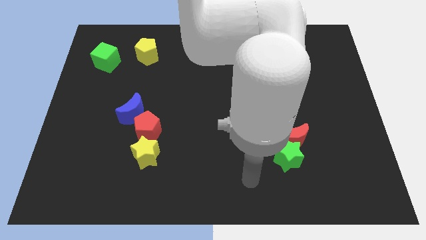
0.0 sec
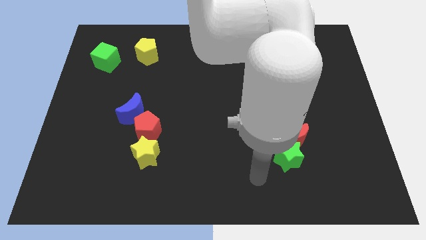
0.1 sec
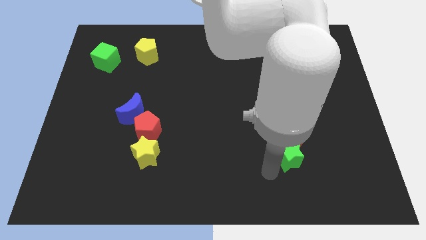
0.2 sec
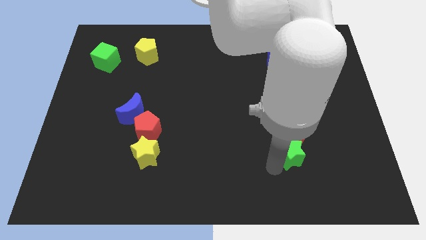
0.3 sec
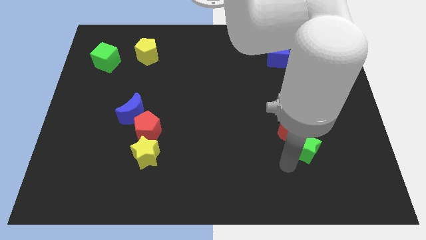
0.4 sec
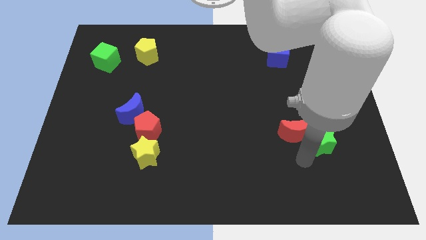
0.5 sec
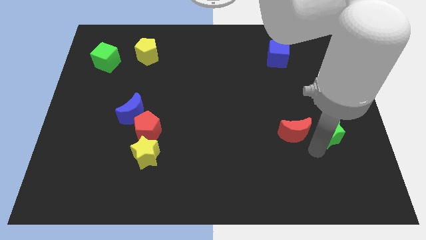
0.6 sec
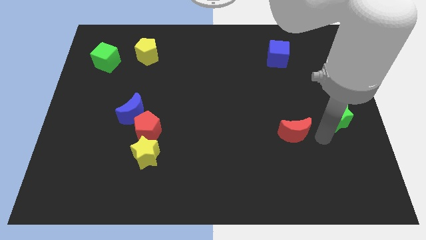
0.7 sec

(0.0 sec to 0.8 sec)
move the red moon away from the green star

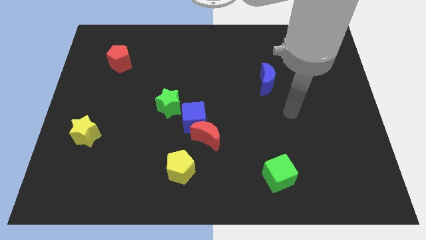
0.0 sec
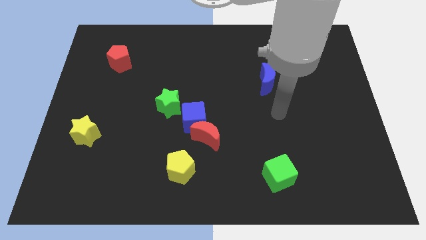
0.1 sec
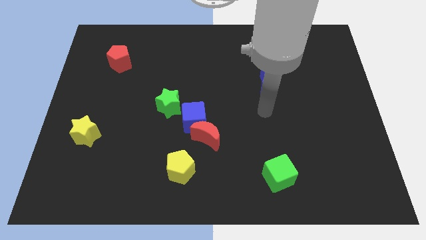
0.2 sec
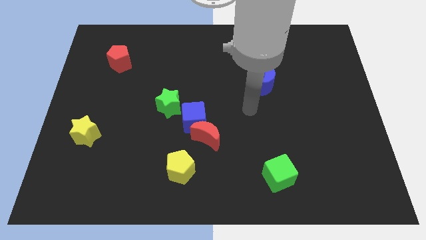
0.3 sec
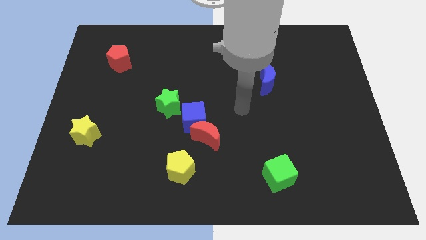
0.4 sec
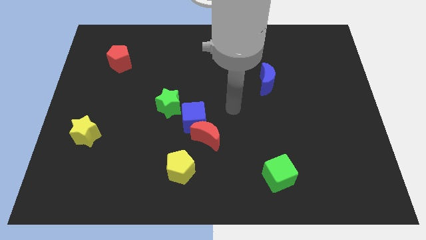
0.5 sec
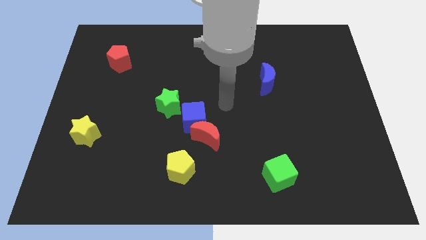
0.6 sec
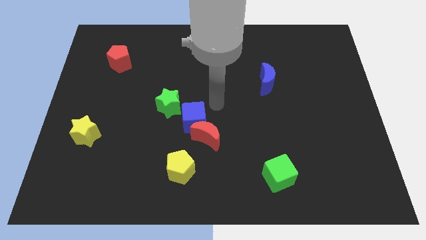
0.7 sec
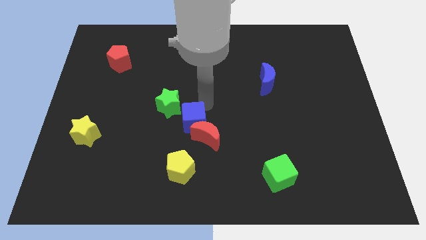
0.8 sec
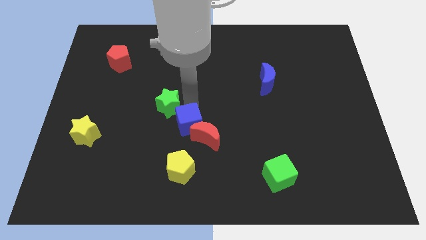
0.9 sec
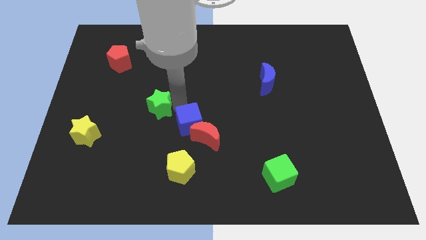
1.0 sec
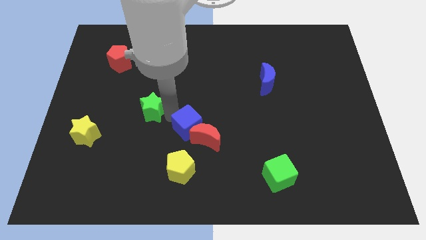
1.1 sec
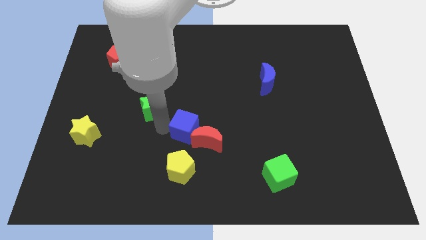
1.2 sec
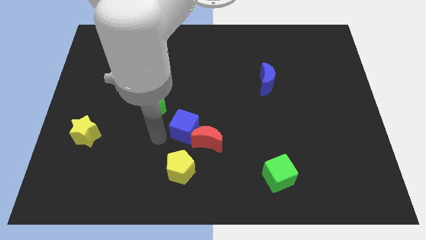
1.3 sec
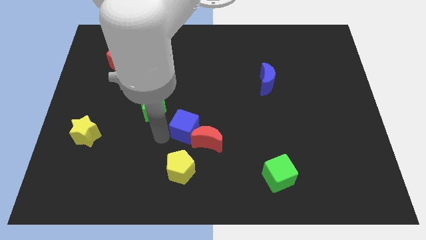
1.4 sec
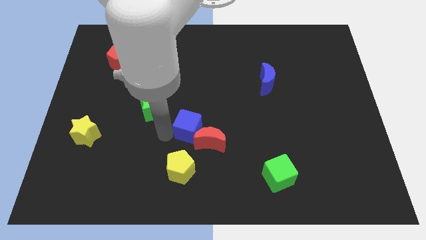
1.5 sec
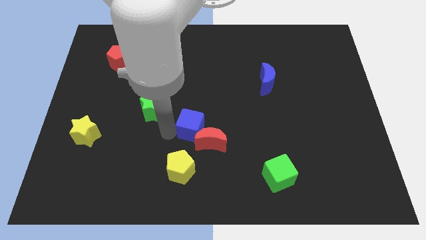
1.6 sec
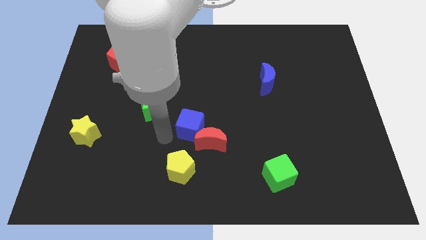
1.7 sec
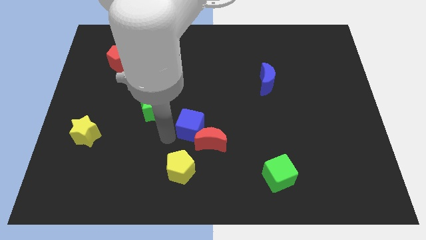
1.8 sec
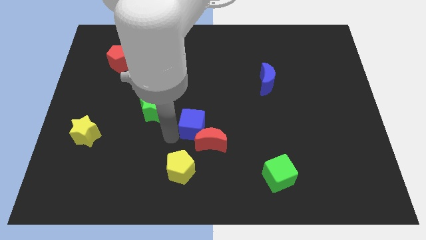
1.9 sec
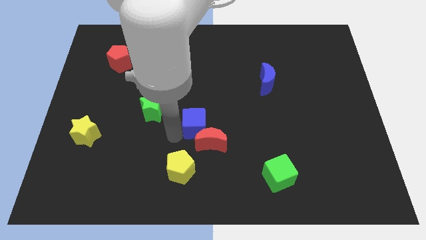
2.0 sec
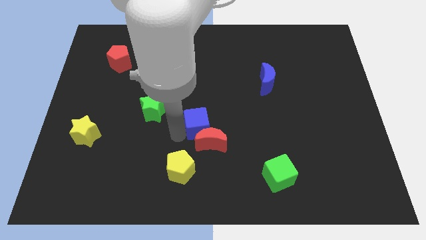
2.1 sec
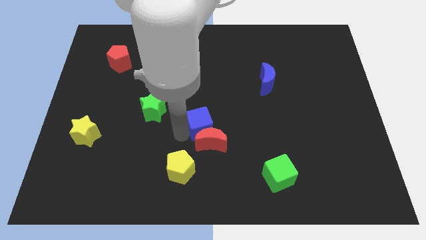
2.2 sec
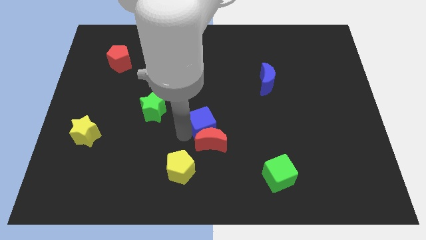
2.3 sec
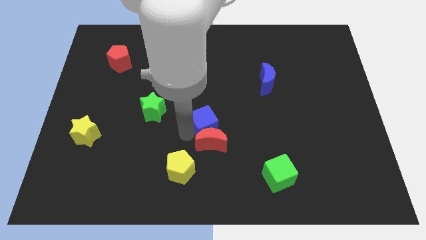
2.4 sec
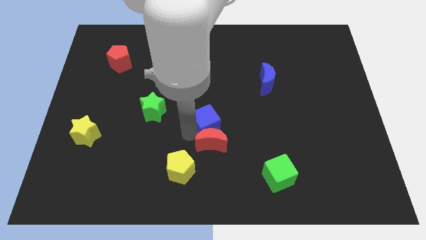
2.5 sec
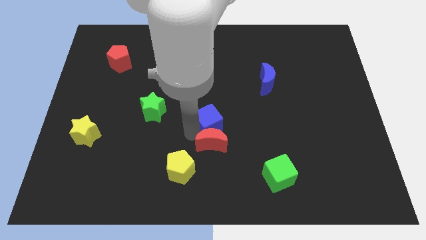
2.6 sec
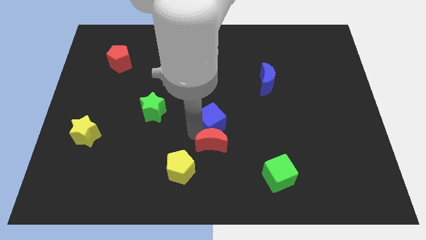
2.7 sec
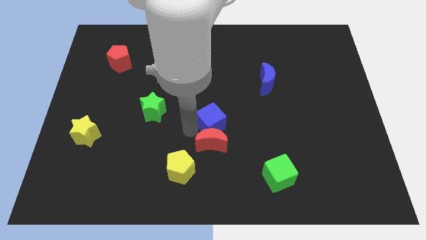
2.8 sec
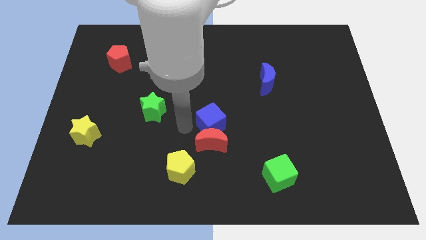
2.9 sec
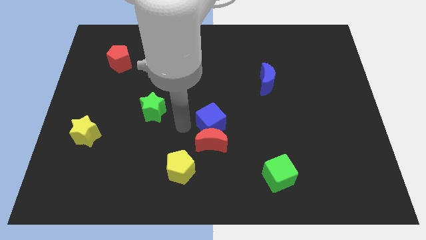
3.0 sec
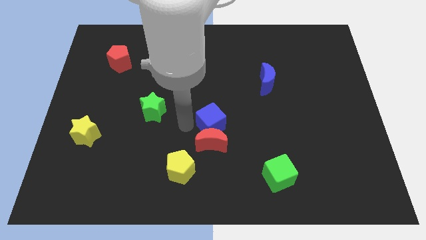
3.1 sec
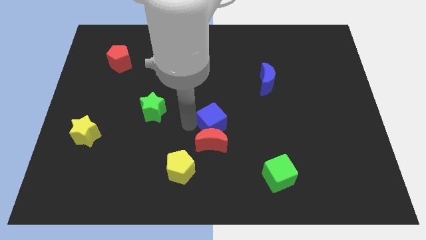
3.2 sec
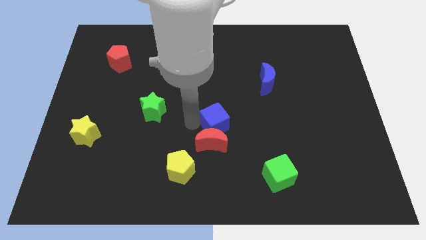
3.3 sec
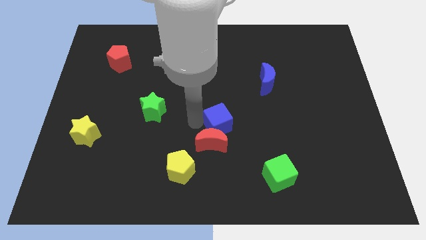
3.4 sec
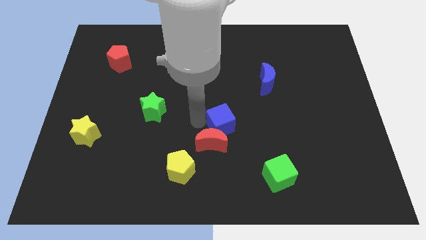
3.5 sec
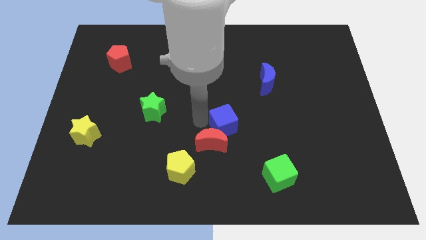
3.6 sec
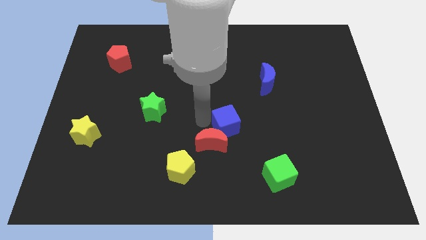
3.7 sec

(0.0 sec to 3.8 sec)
separate the blue cube from the red moon and green star

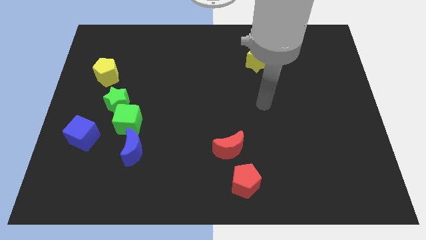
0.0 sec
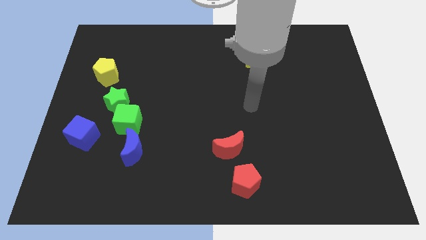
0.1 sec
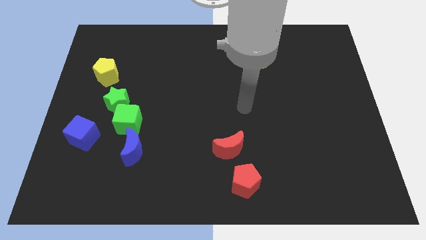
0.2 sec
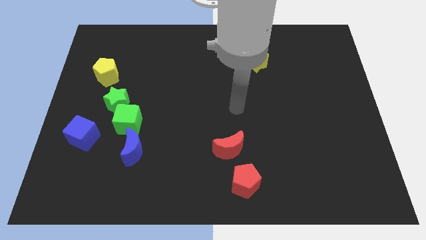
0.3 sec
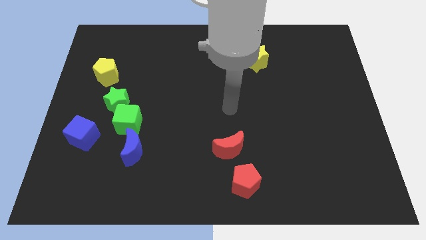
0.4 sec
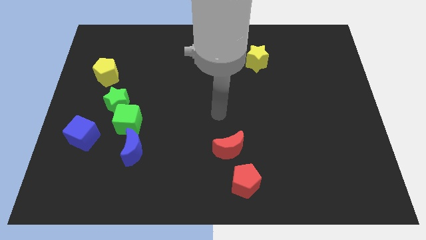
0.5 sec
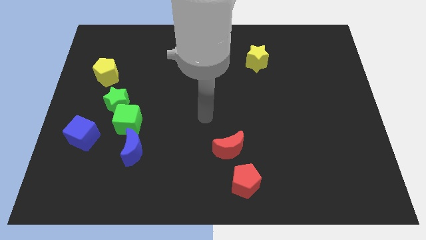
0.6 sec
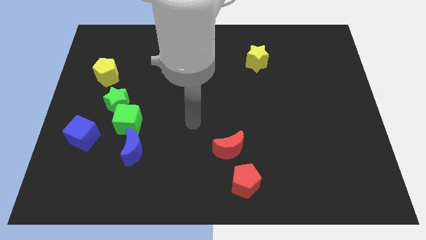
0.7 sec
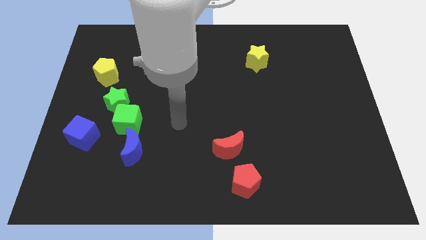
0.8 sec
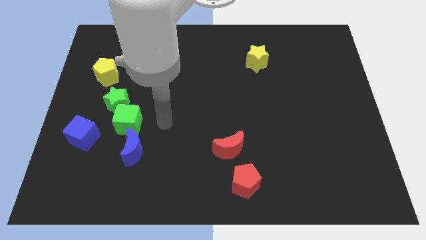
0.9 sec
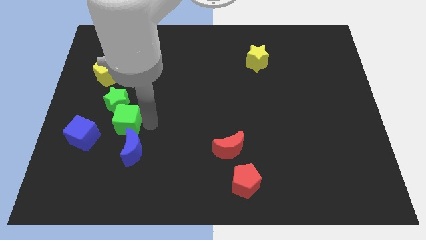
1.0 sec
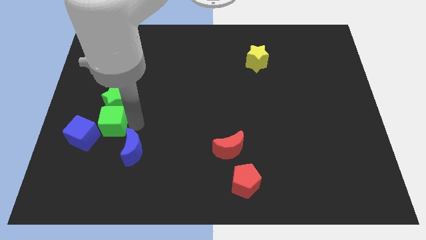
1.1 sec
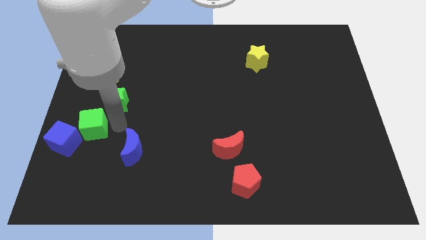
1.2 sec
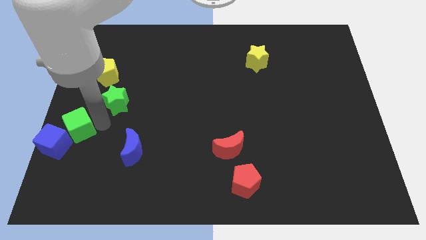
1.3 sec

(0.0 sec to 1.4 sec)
pull the green star apart from the green cube

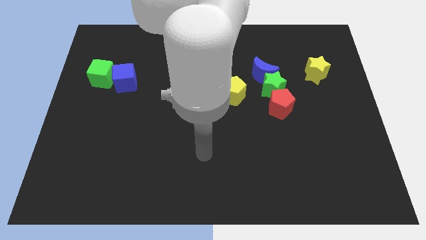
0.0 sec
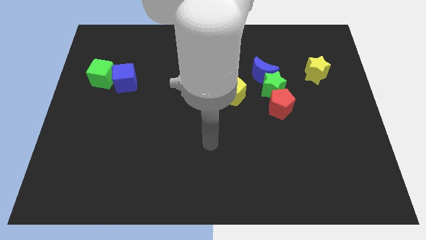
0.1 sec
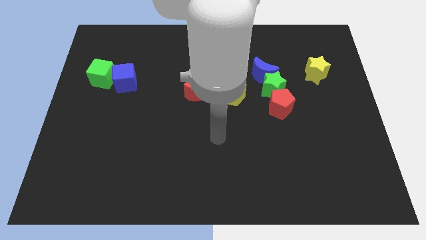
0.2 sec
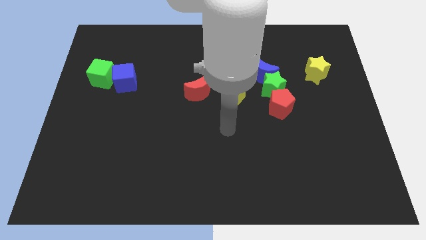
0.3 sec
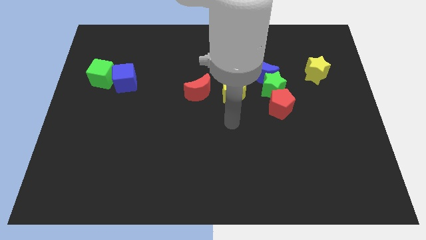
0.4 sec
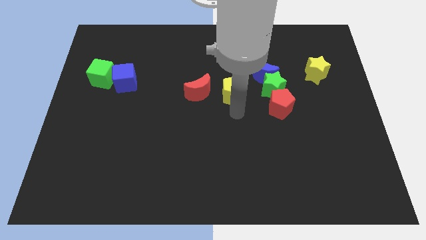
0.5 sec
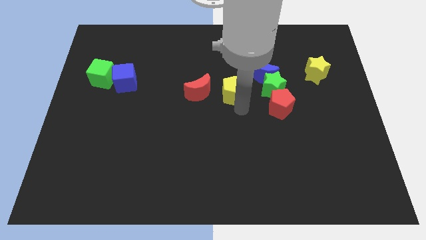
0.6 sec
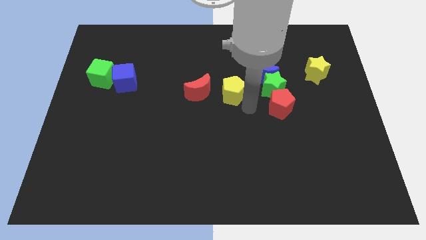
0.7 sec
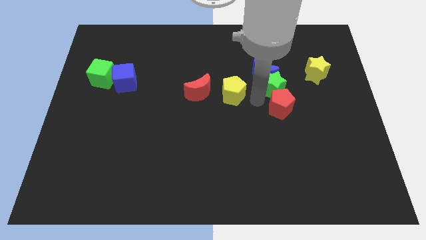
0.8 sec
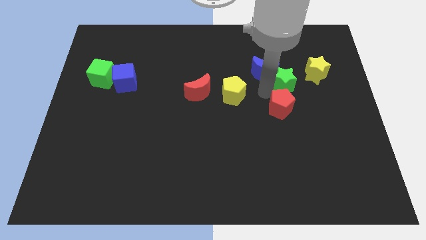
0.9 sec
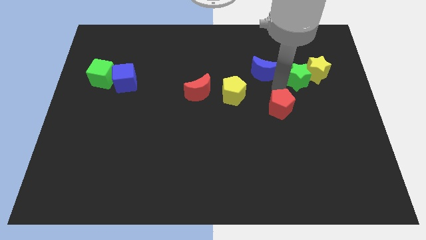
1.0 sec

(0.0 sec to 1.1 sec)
pull the red pentagon apart from the green star

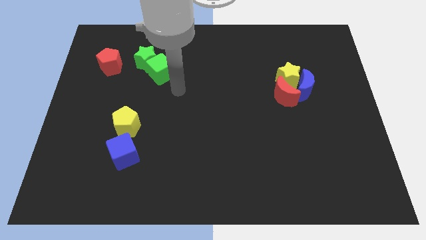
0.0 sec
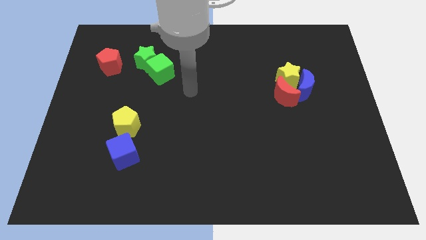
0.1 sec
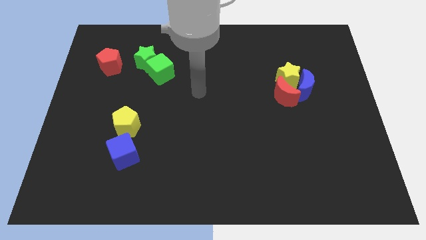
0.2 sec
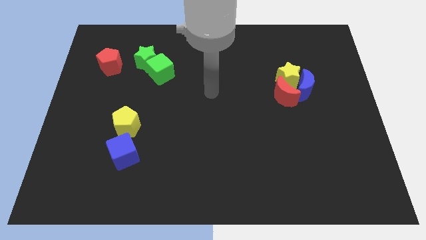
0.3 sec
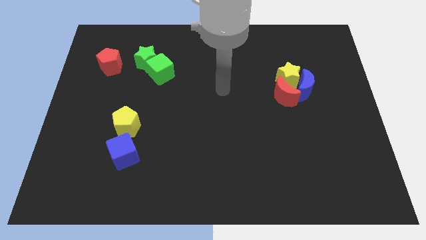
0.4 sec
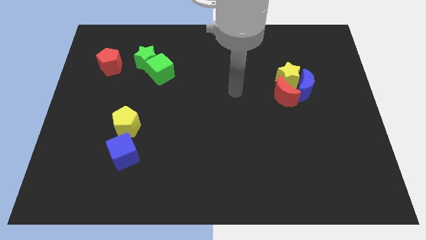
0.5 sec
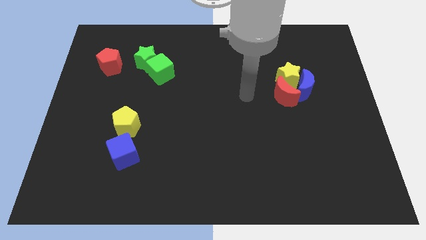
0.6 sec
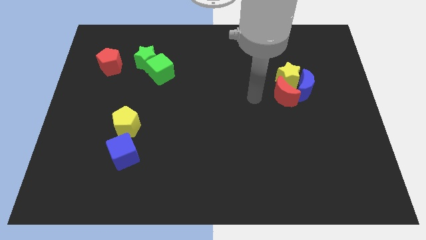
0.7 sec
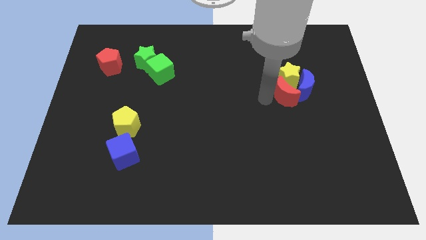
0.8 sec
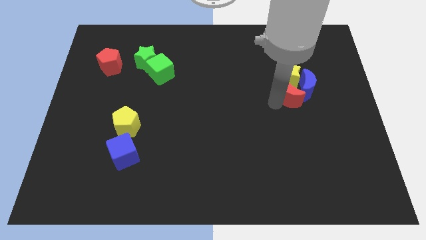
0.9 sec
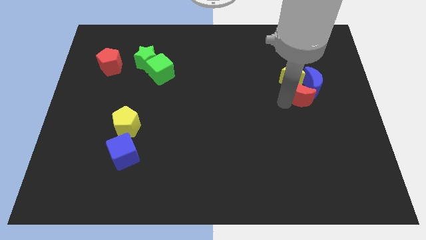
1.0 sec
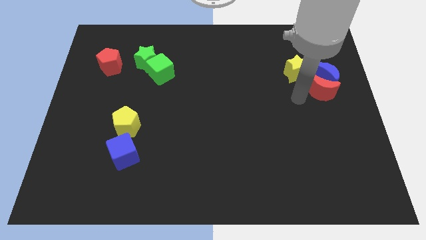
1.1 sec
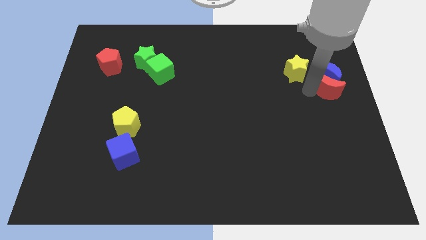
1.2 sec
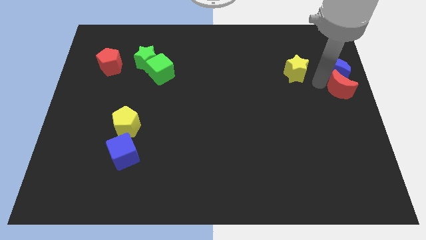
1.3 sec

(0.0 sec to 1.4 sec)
move the yellow star away from the blue moon and red moon

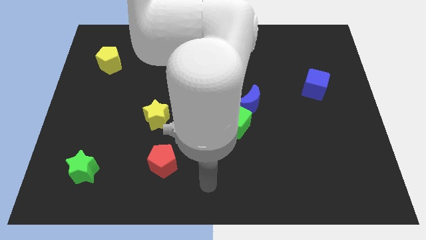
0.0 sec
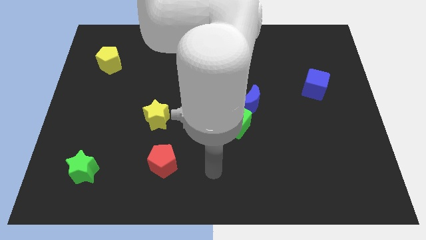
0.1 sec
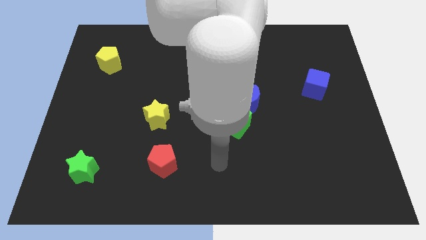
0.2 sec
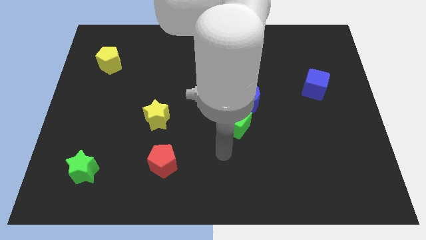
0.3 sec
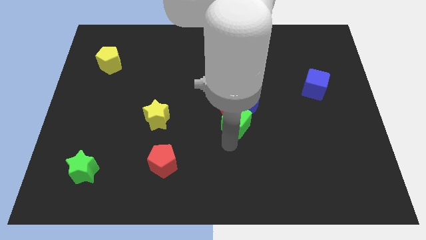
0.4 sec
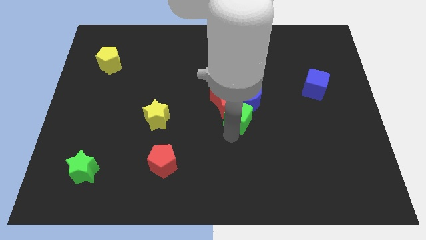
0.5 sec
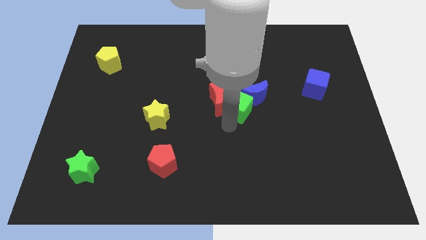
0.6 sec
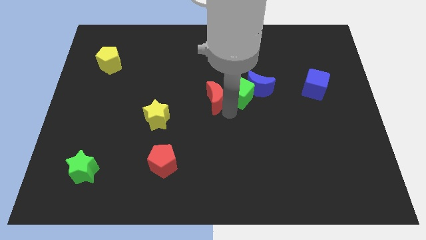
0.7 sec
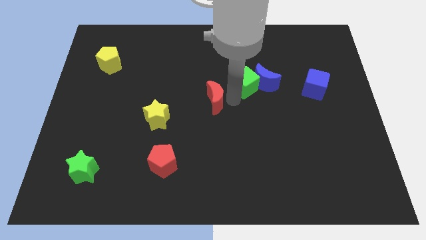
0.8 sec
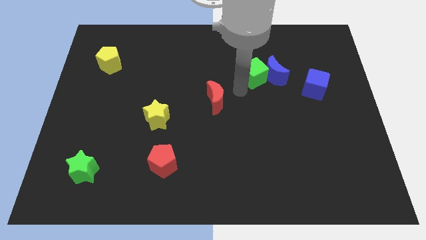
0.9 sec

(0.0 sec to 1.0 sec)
pull the blue moon apart from the red moon and green cube
